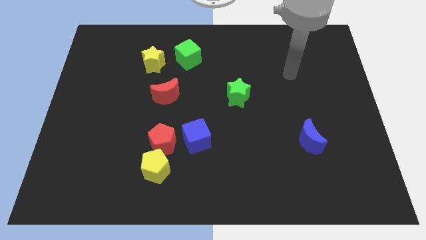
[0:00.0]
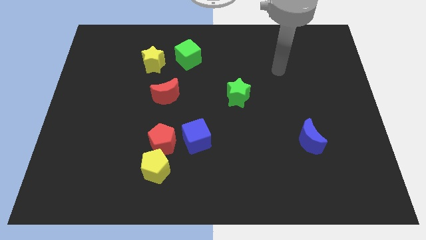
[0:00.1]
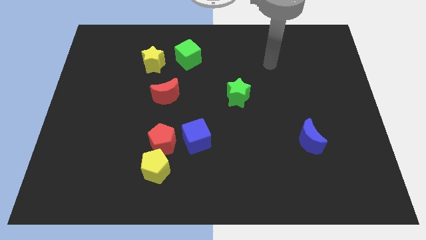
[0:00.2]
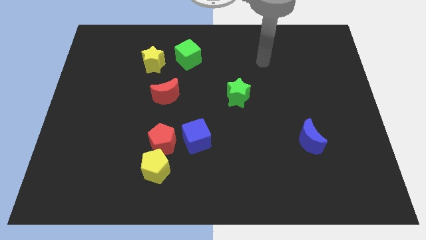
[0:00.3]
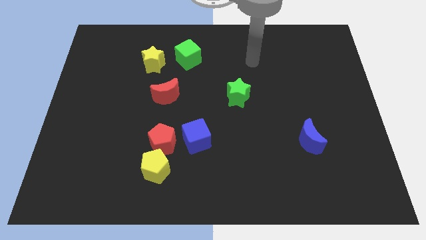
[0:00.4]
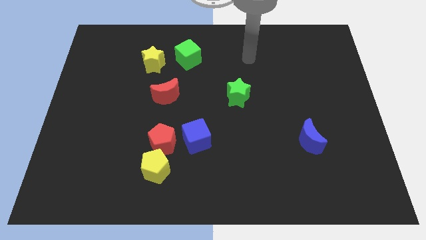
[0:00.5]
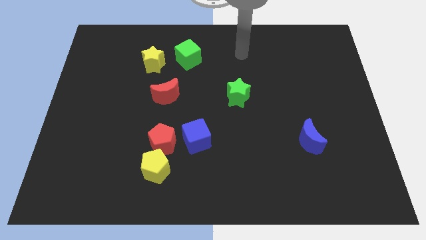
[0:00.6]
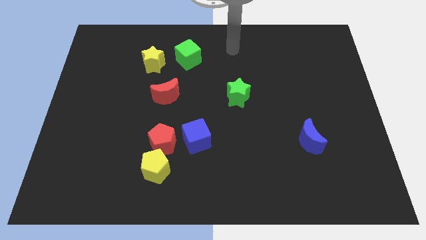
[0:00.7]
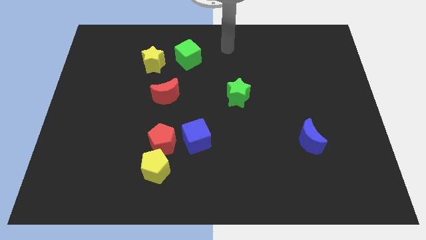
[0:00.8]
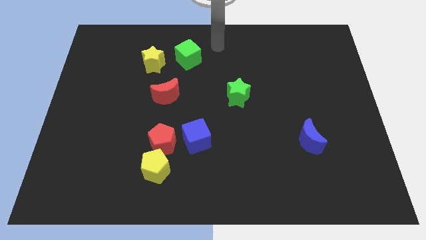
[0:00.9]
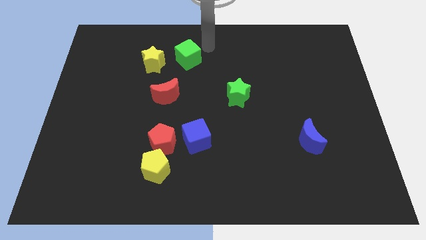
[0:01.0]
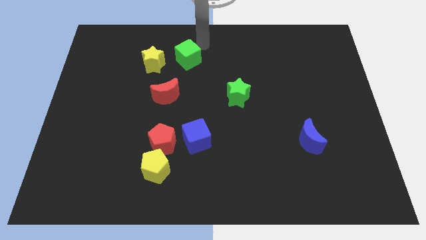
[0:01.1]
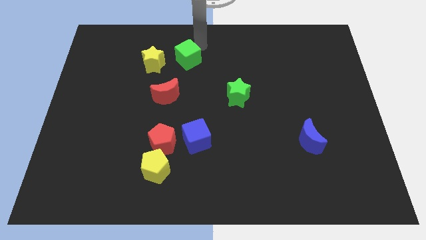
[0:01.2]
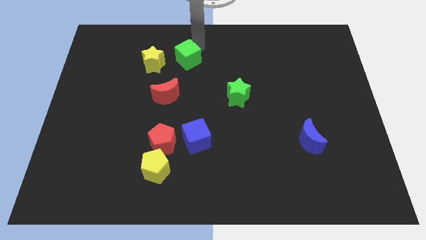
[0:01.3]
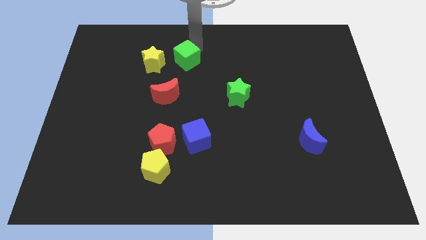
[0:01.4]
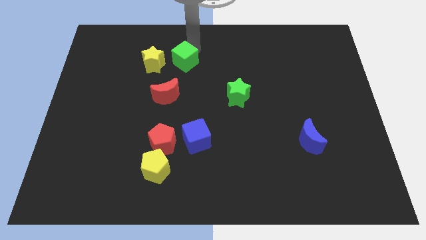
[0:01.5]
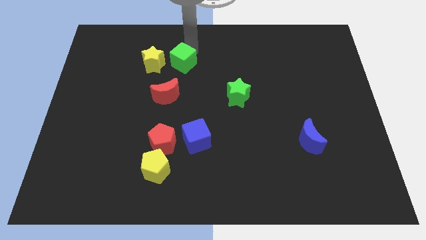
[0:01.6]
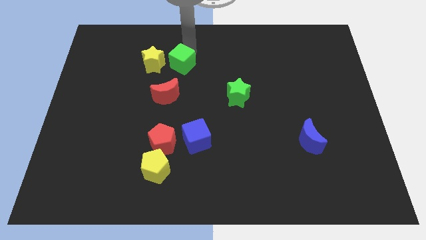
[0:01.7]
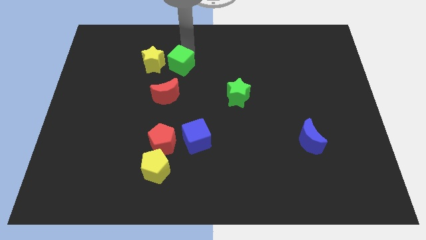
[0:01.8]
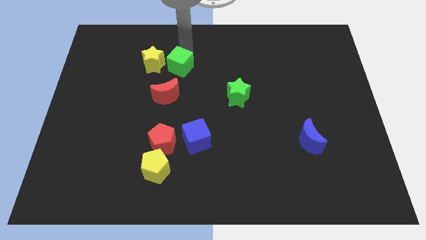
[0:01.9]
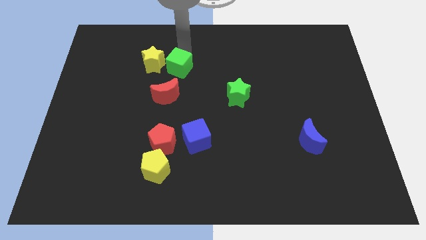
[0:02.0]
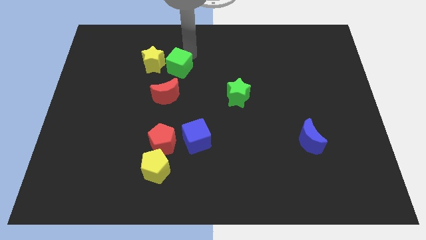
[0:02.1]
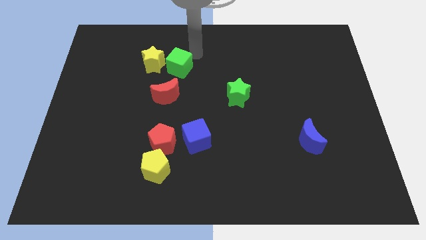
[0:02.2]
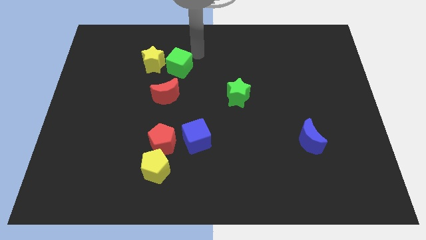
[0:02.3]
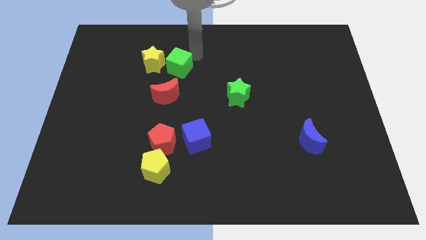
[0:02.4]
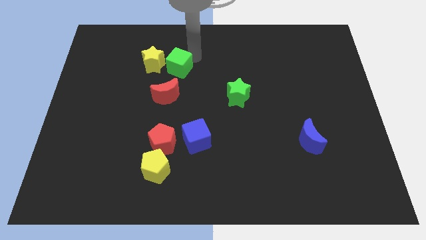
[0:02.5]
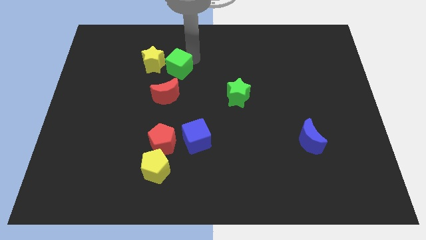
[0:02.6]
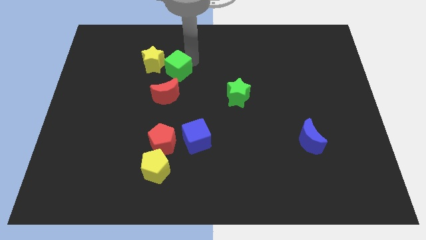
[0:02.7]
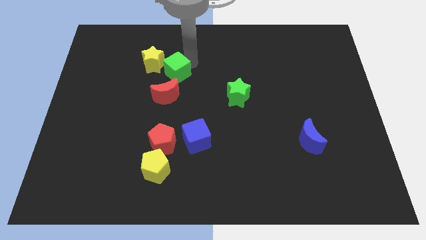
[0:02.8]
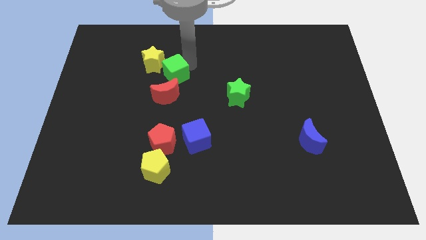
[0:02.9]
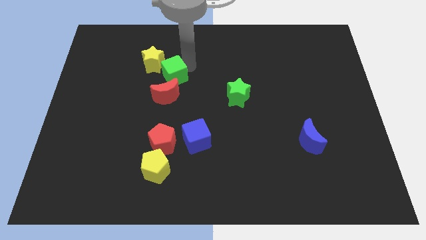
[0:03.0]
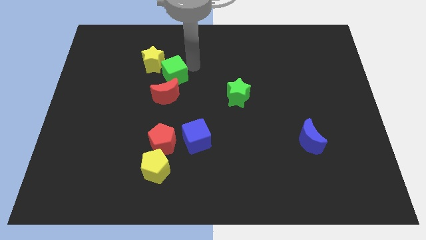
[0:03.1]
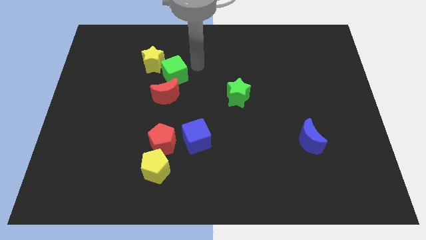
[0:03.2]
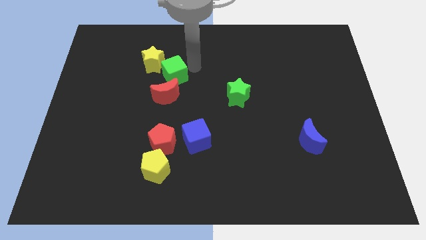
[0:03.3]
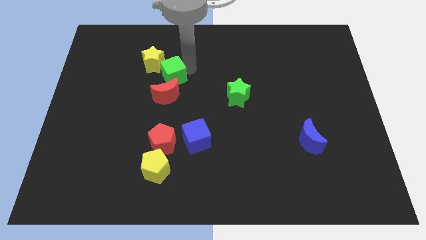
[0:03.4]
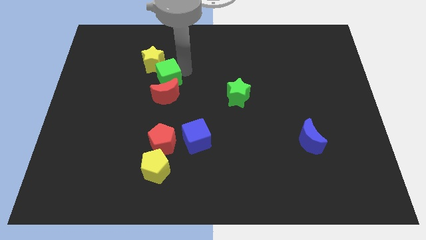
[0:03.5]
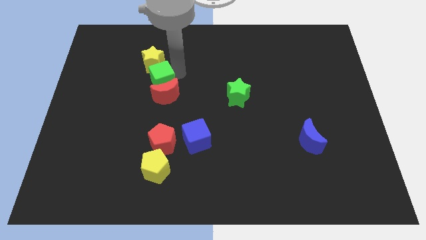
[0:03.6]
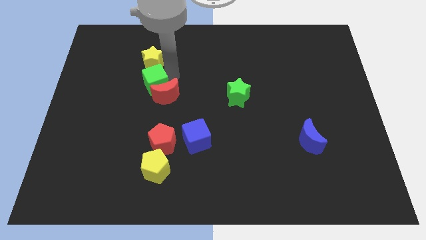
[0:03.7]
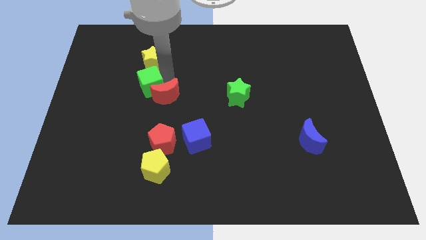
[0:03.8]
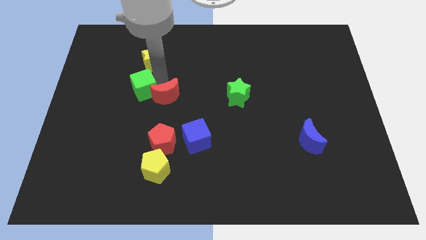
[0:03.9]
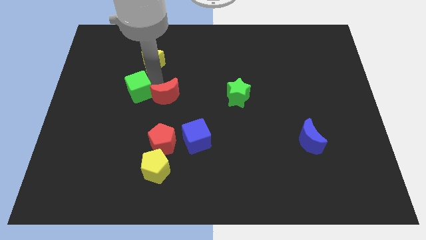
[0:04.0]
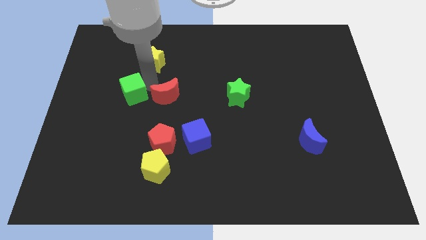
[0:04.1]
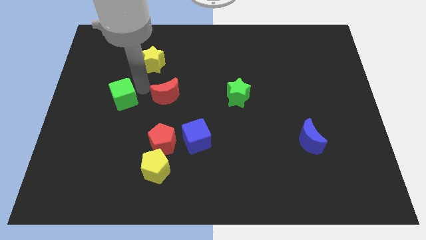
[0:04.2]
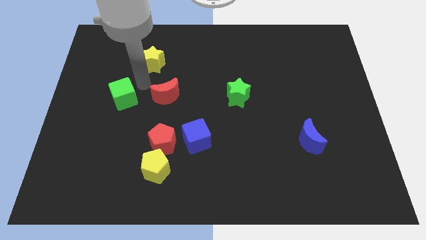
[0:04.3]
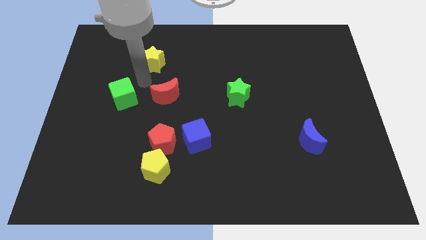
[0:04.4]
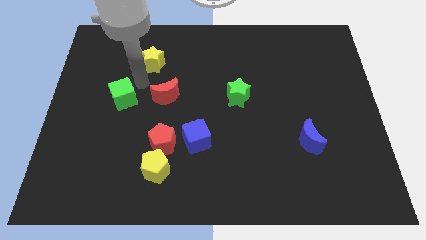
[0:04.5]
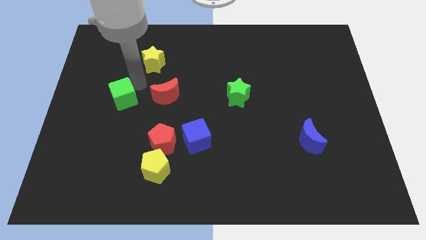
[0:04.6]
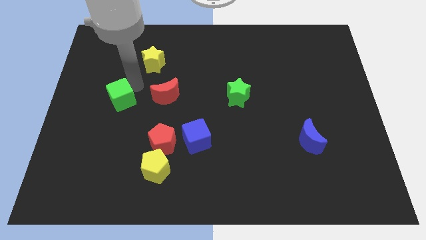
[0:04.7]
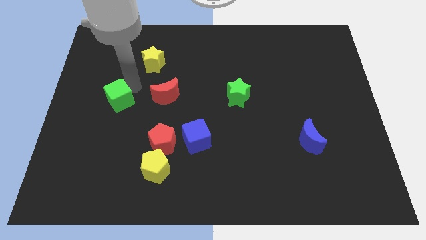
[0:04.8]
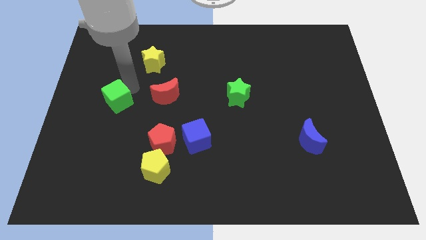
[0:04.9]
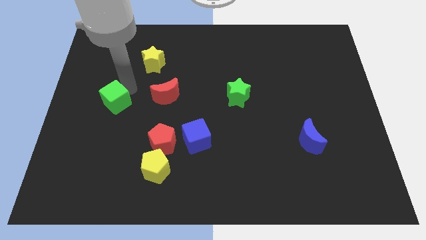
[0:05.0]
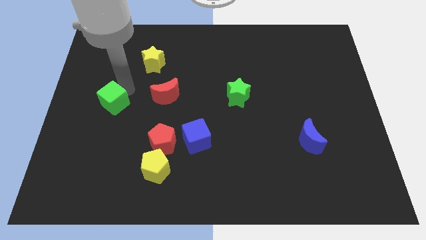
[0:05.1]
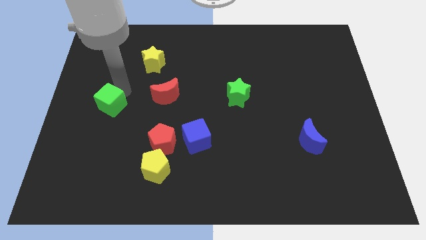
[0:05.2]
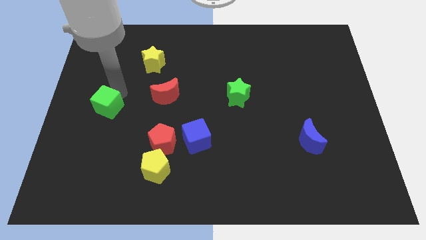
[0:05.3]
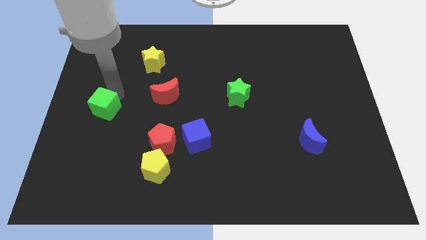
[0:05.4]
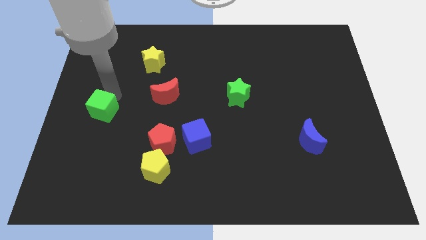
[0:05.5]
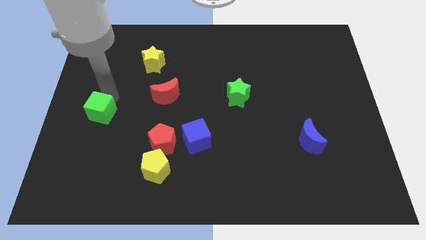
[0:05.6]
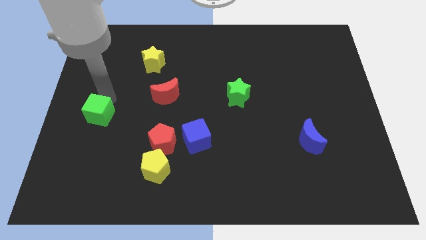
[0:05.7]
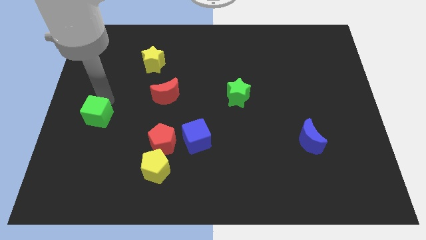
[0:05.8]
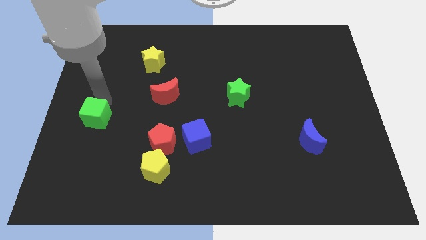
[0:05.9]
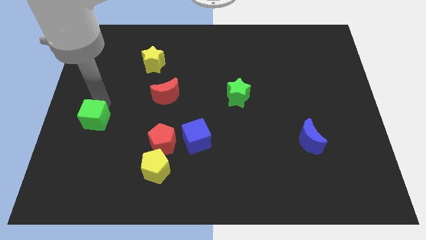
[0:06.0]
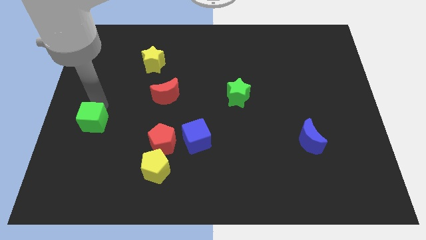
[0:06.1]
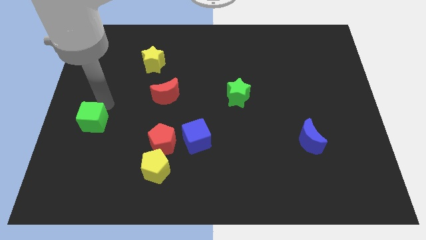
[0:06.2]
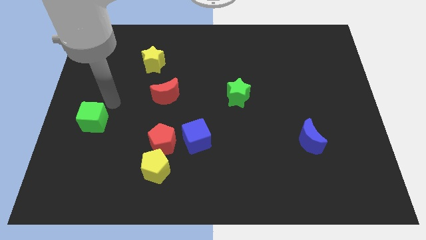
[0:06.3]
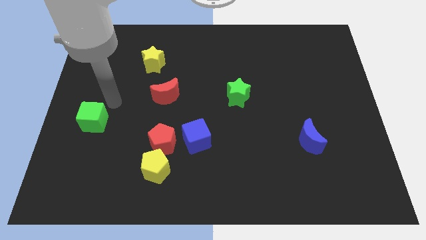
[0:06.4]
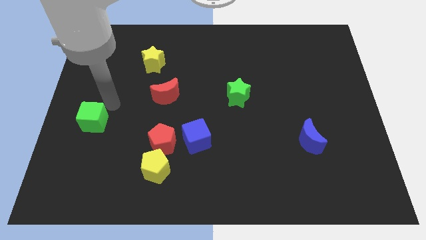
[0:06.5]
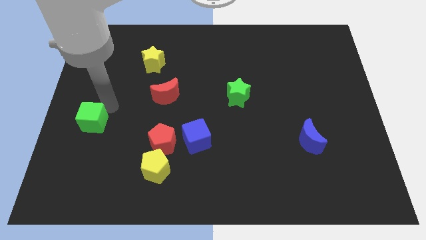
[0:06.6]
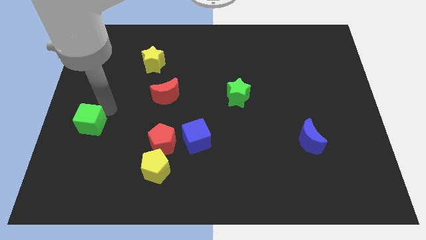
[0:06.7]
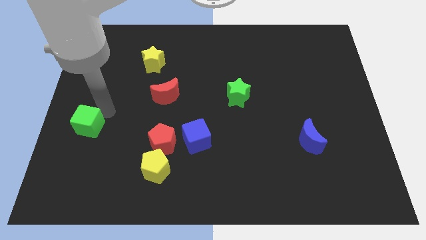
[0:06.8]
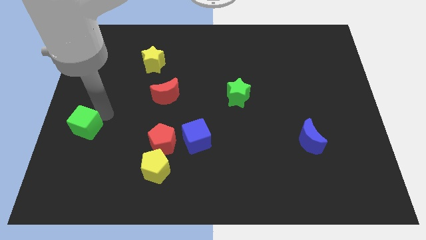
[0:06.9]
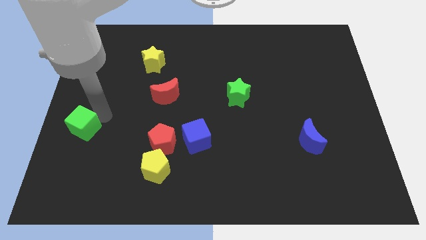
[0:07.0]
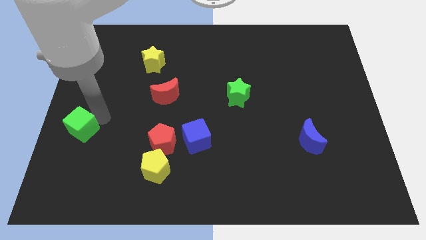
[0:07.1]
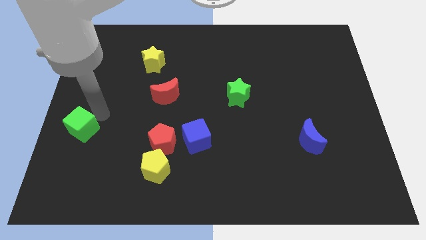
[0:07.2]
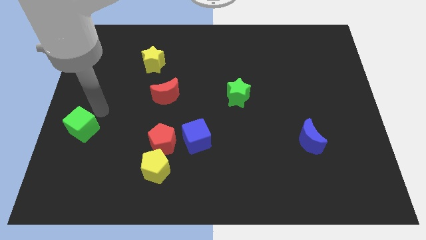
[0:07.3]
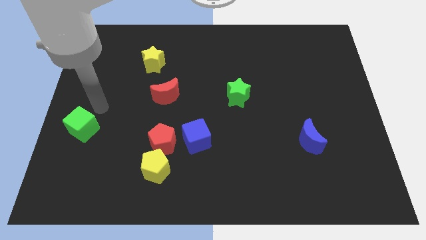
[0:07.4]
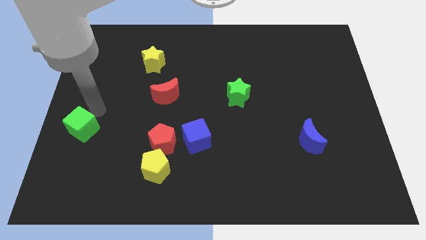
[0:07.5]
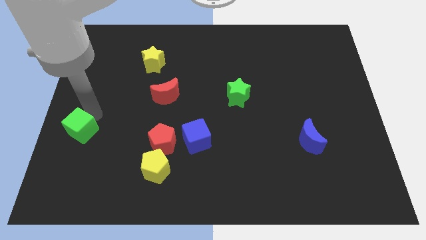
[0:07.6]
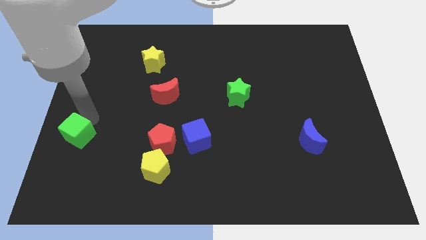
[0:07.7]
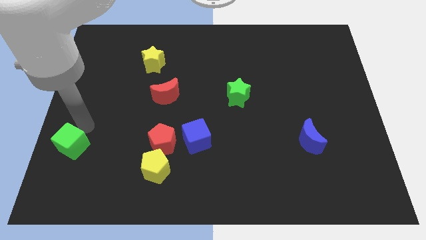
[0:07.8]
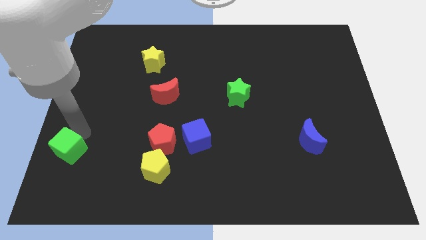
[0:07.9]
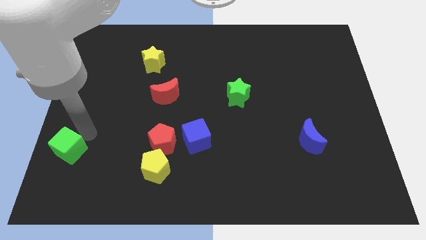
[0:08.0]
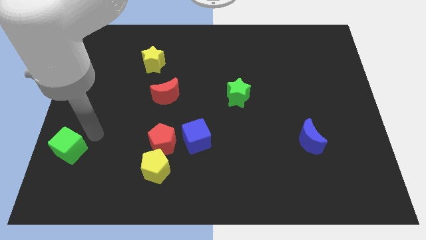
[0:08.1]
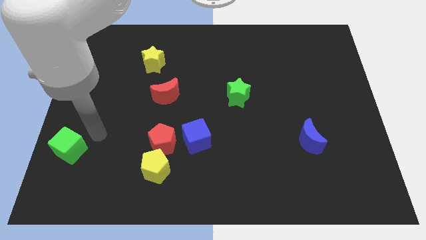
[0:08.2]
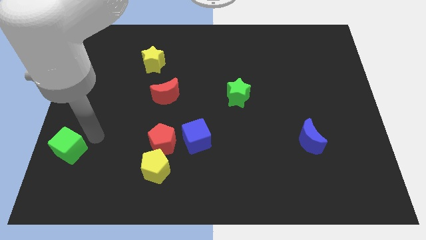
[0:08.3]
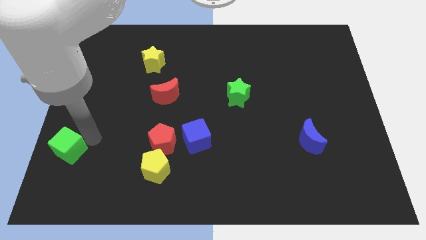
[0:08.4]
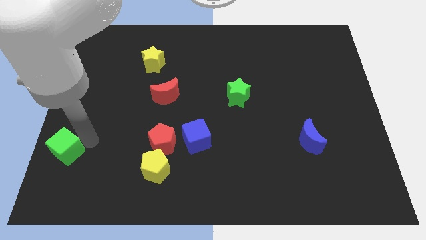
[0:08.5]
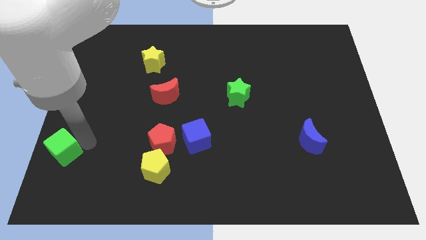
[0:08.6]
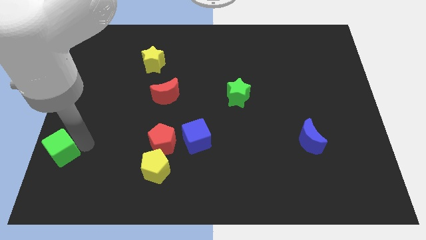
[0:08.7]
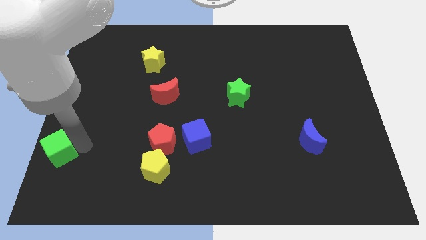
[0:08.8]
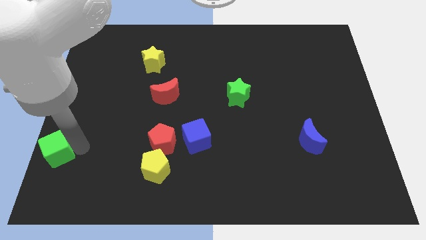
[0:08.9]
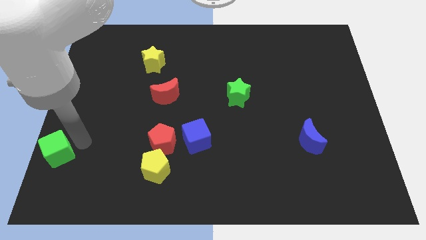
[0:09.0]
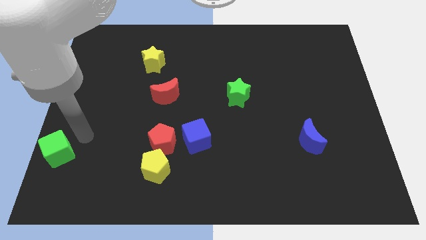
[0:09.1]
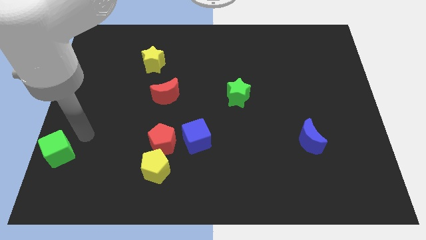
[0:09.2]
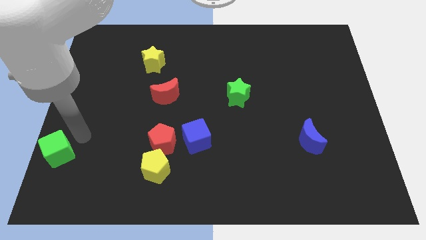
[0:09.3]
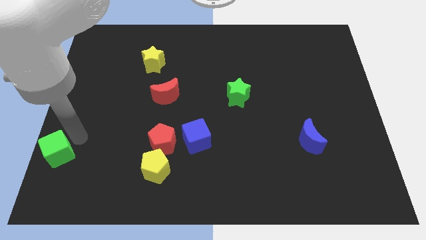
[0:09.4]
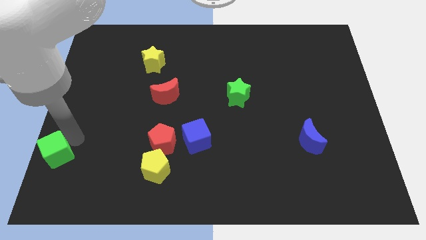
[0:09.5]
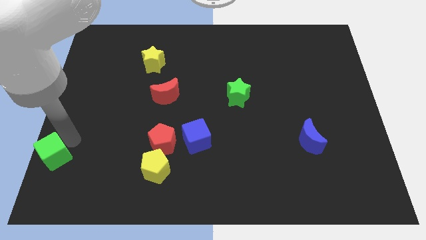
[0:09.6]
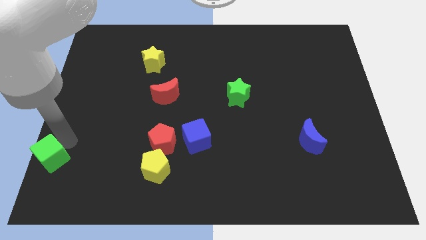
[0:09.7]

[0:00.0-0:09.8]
push the green cube to the bottom left of the board
